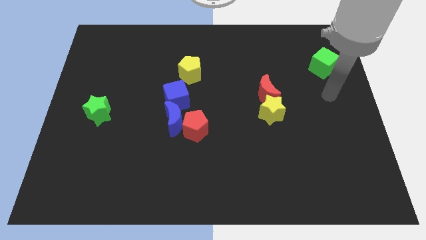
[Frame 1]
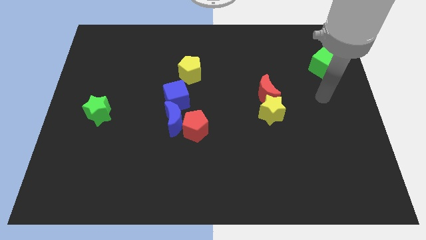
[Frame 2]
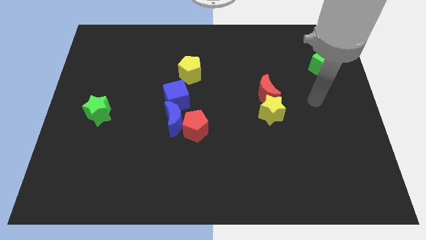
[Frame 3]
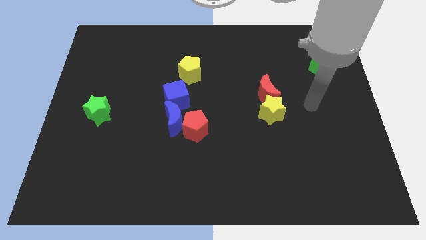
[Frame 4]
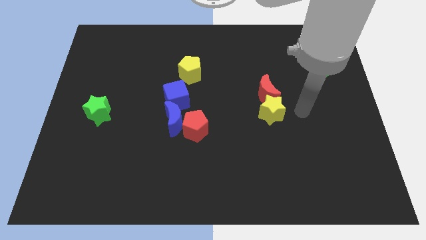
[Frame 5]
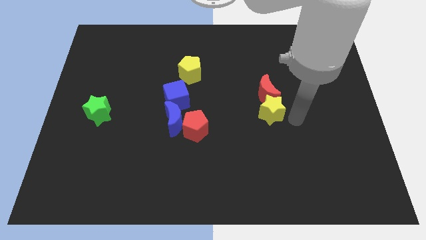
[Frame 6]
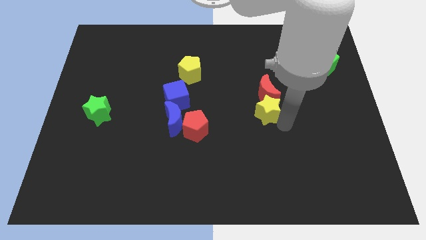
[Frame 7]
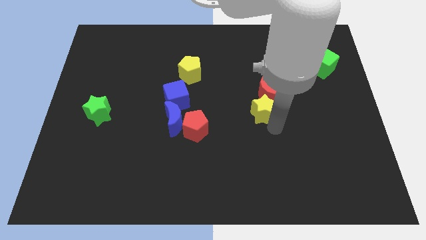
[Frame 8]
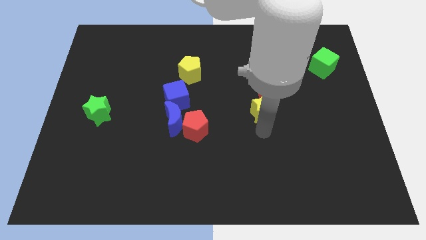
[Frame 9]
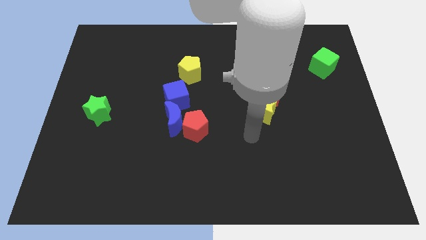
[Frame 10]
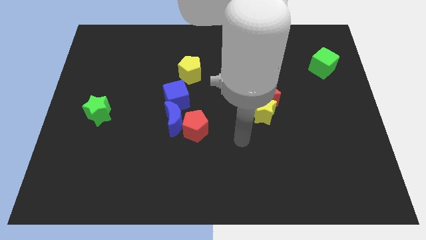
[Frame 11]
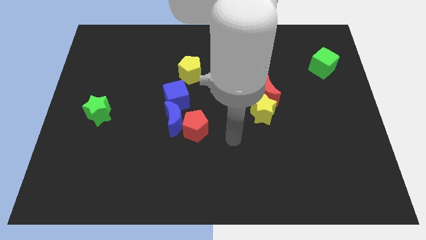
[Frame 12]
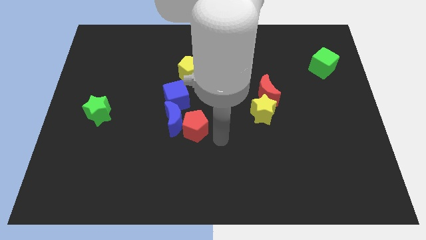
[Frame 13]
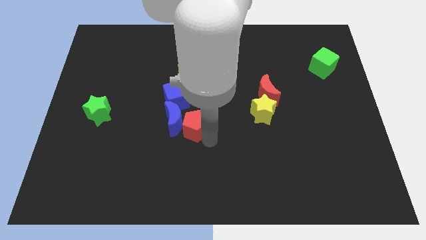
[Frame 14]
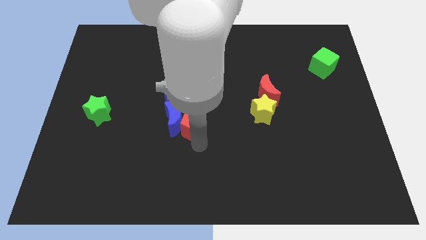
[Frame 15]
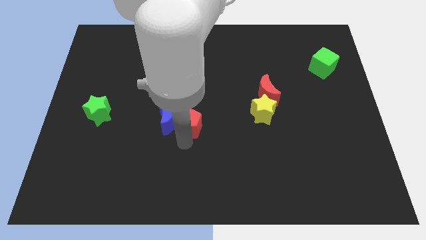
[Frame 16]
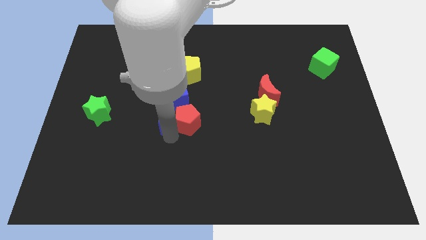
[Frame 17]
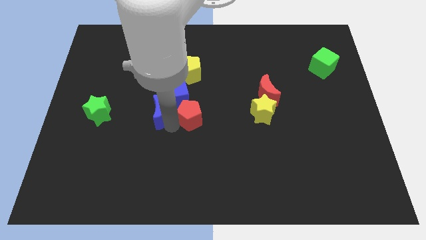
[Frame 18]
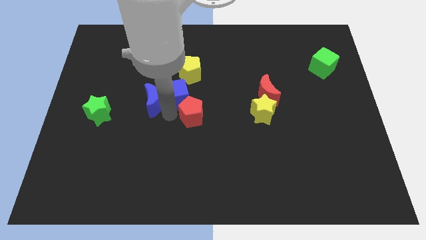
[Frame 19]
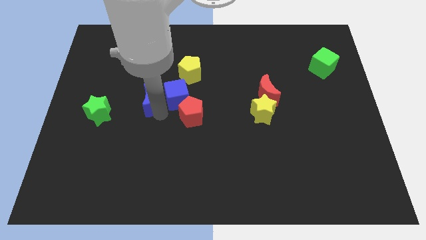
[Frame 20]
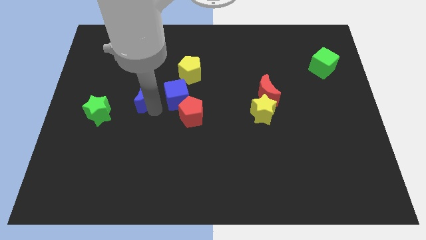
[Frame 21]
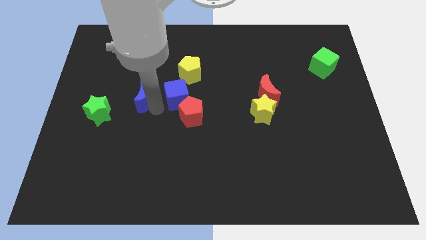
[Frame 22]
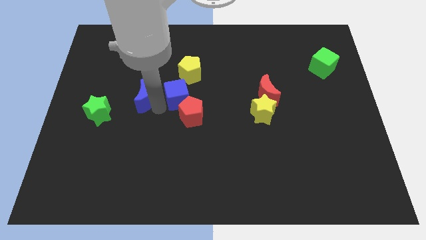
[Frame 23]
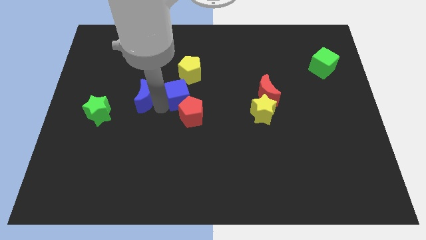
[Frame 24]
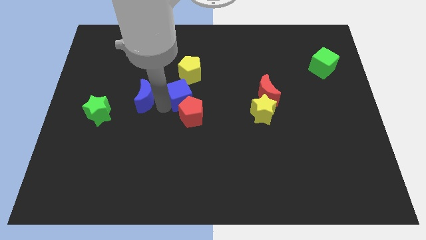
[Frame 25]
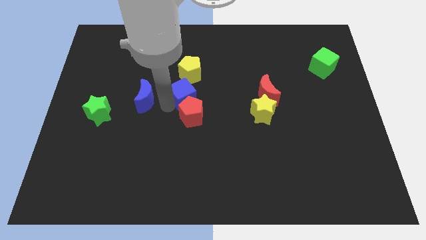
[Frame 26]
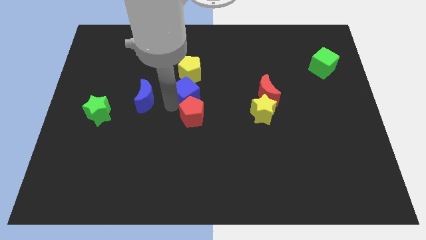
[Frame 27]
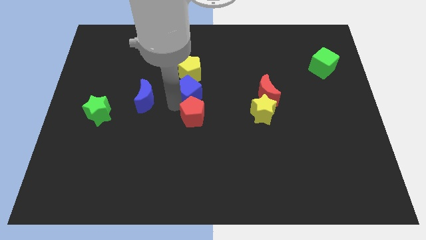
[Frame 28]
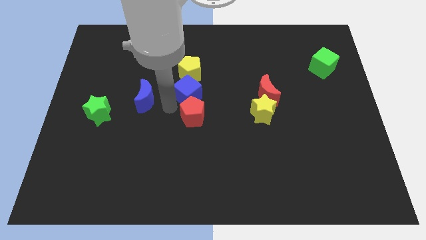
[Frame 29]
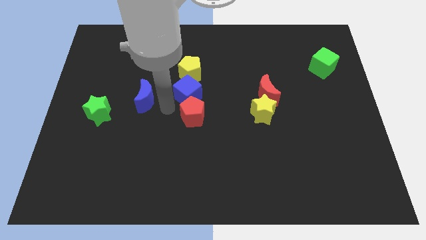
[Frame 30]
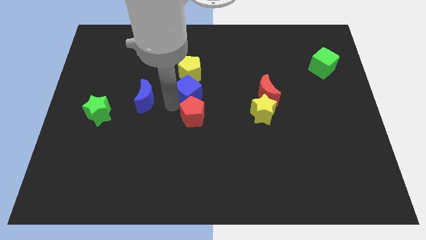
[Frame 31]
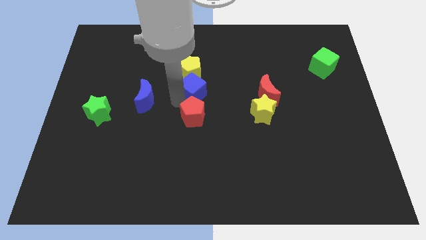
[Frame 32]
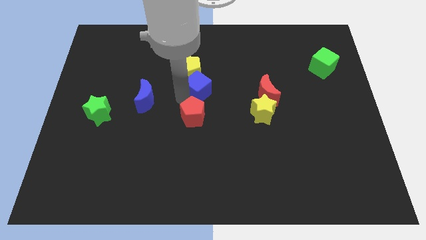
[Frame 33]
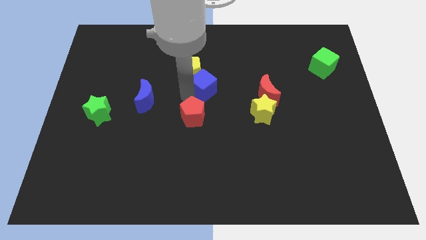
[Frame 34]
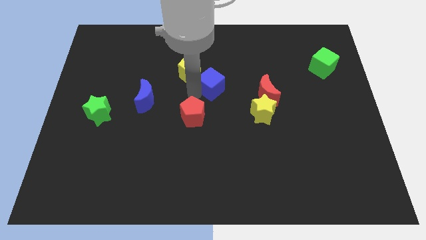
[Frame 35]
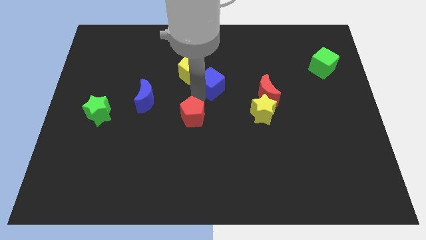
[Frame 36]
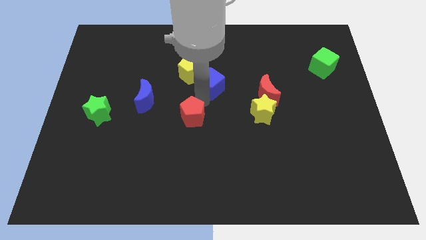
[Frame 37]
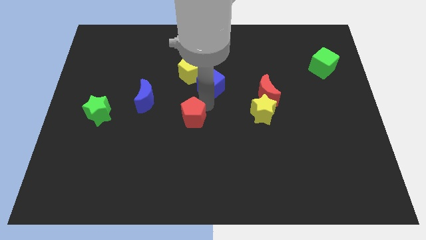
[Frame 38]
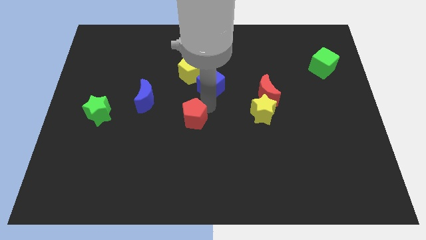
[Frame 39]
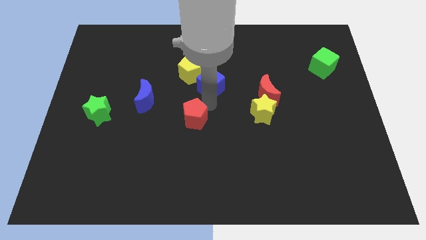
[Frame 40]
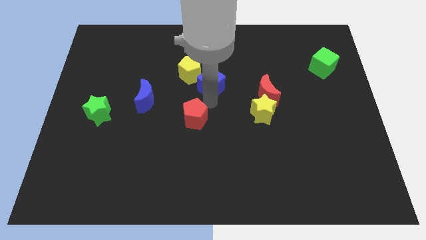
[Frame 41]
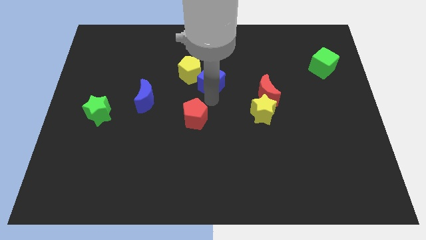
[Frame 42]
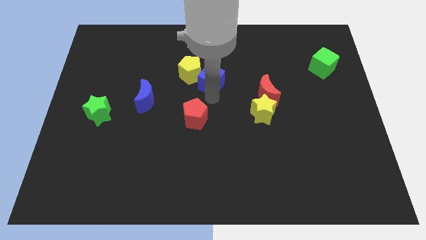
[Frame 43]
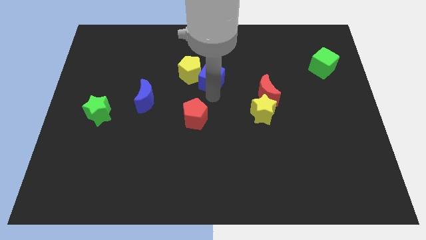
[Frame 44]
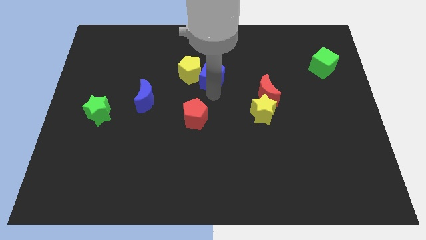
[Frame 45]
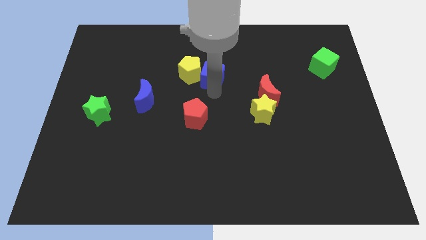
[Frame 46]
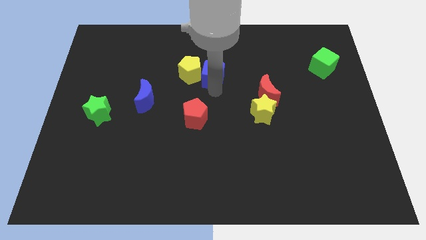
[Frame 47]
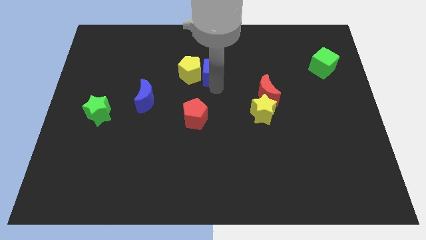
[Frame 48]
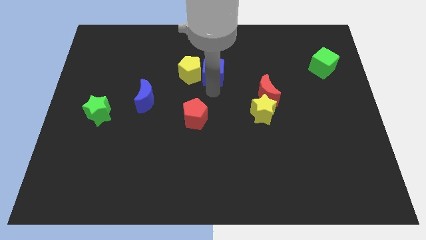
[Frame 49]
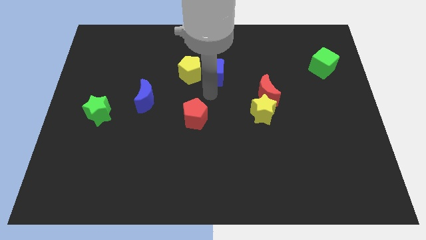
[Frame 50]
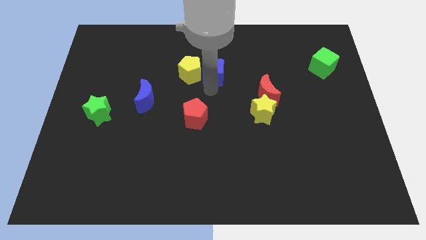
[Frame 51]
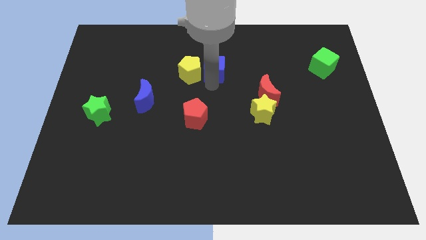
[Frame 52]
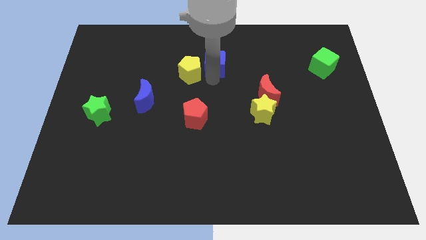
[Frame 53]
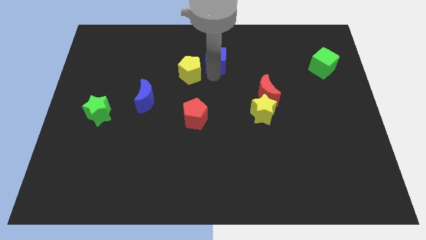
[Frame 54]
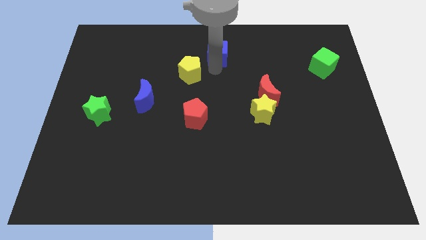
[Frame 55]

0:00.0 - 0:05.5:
push the blue cube to the top side
